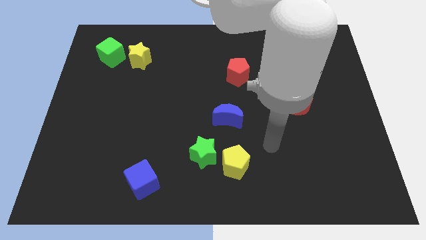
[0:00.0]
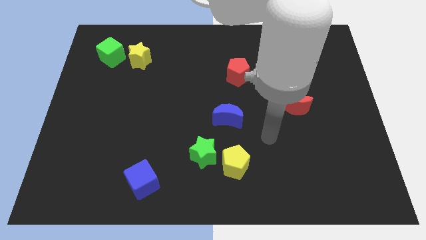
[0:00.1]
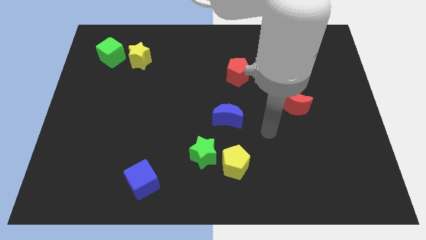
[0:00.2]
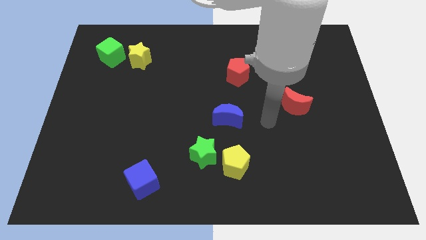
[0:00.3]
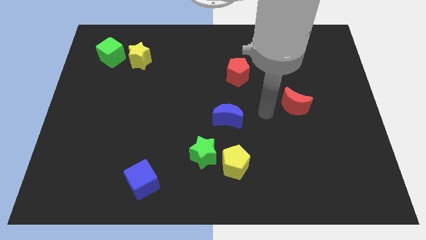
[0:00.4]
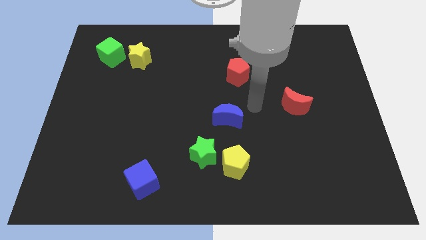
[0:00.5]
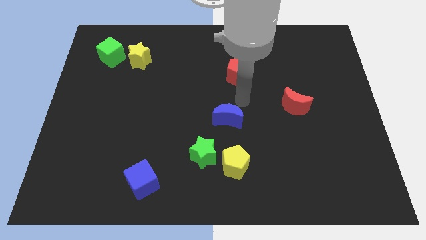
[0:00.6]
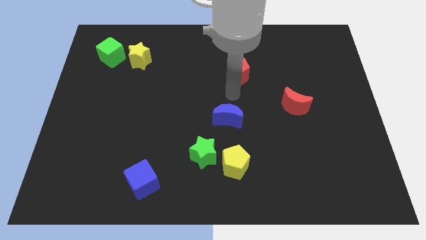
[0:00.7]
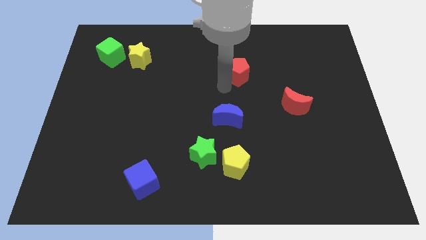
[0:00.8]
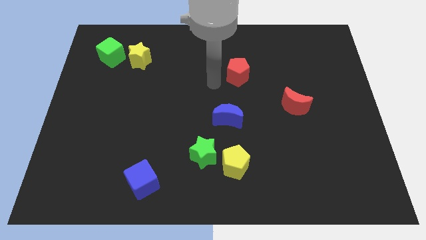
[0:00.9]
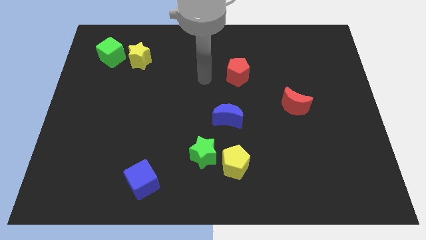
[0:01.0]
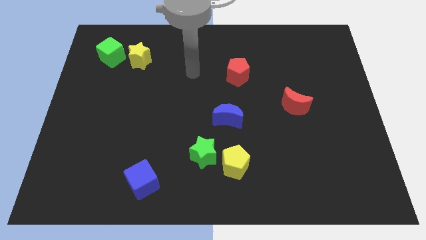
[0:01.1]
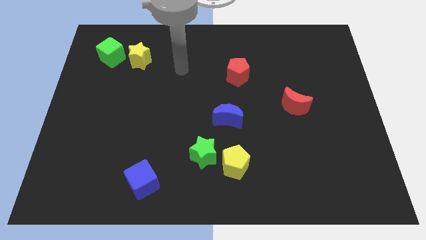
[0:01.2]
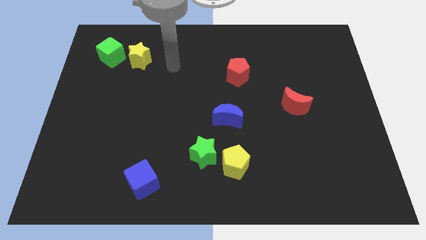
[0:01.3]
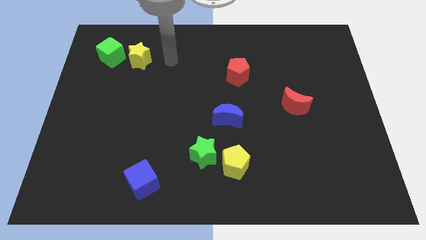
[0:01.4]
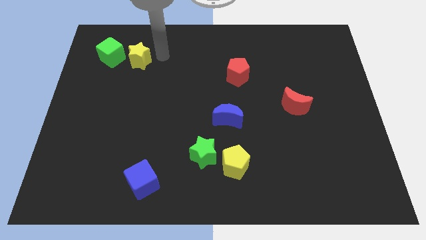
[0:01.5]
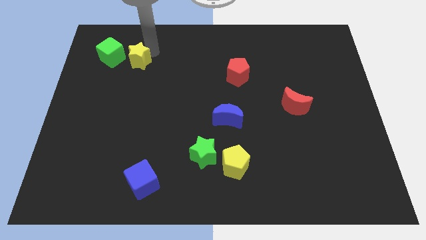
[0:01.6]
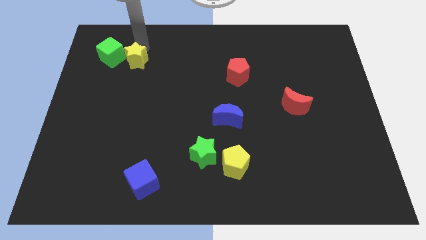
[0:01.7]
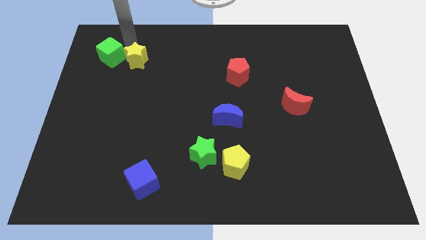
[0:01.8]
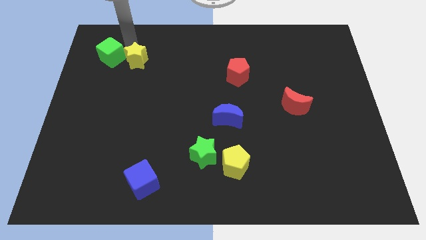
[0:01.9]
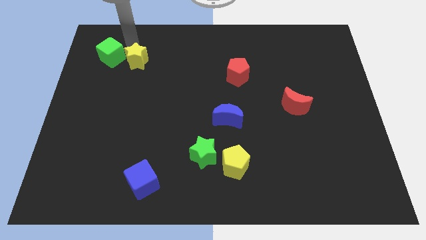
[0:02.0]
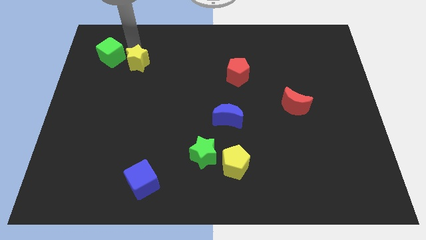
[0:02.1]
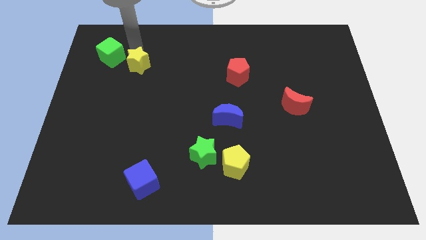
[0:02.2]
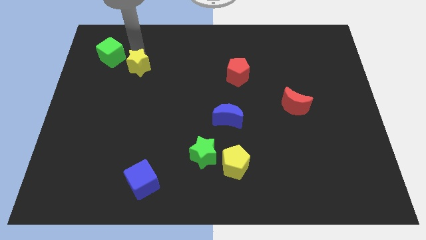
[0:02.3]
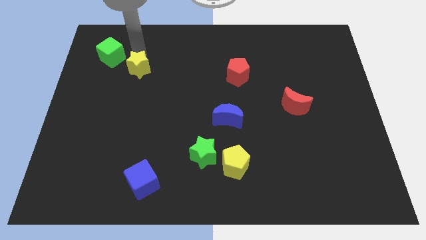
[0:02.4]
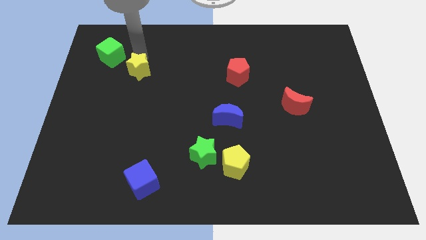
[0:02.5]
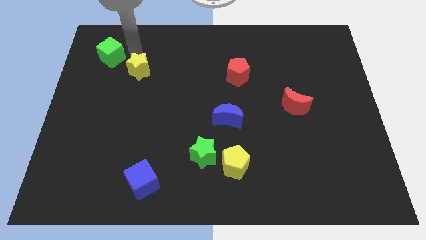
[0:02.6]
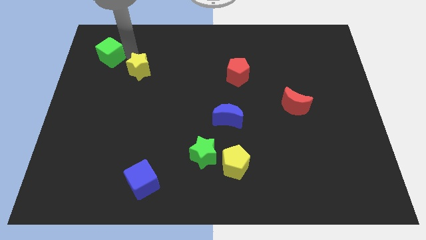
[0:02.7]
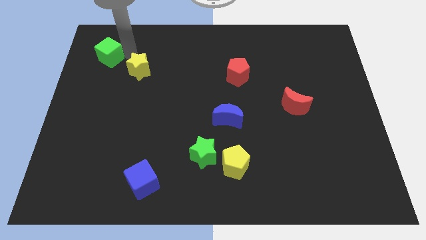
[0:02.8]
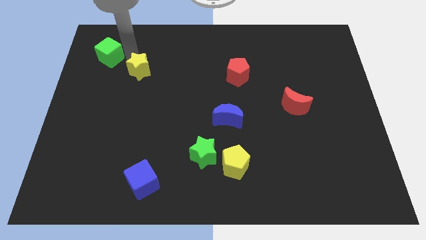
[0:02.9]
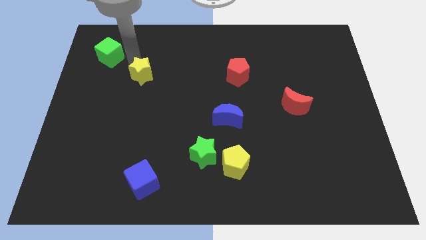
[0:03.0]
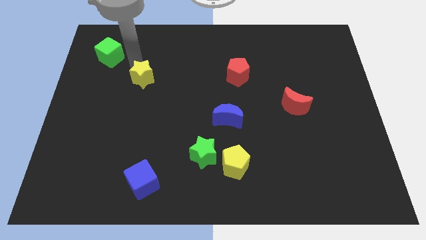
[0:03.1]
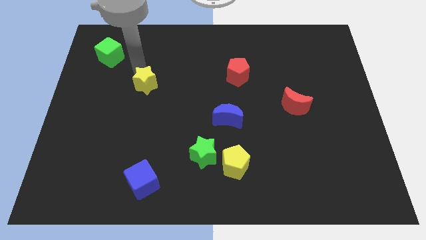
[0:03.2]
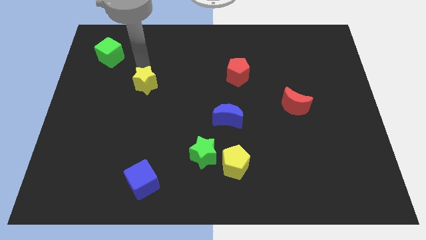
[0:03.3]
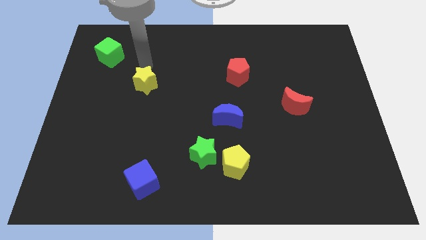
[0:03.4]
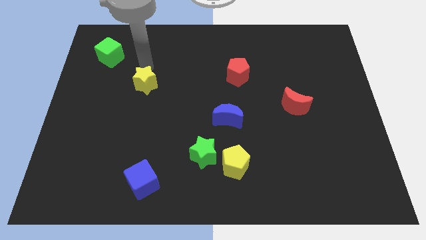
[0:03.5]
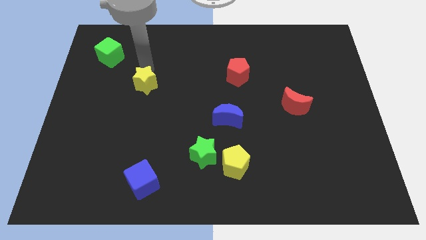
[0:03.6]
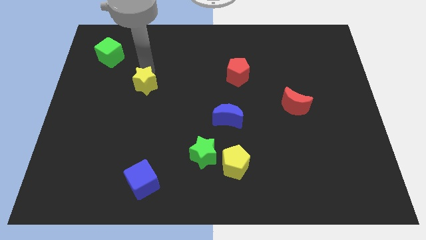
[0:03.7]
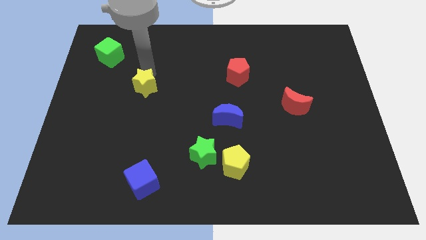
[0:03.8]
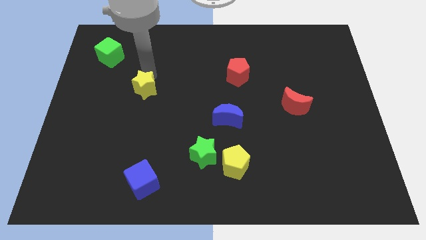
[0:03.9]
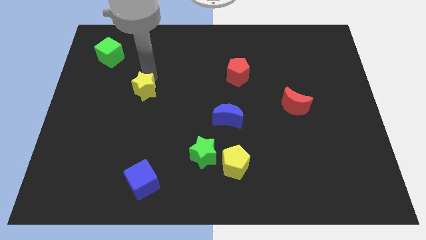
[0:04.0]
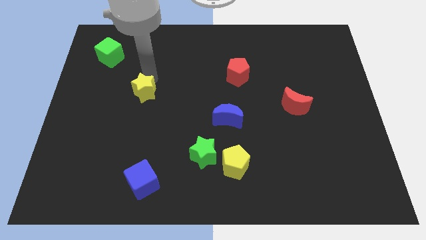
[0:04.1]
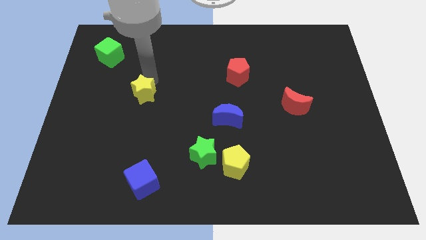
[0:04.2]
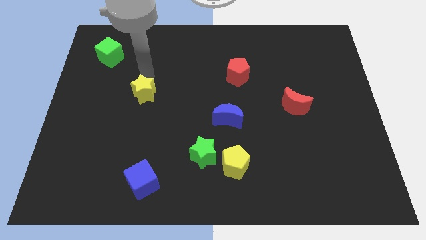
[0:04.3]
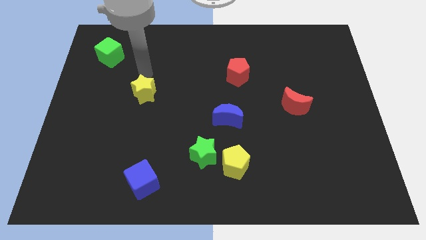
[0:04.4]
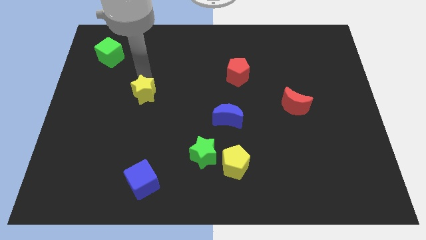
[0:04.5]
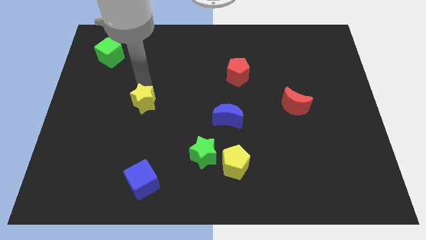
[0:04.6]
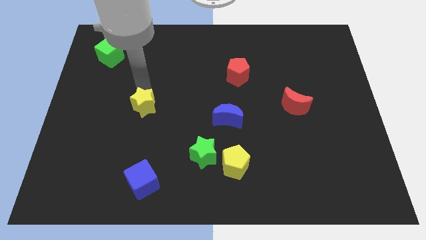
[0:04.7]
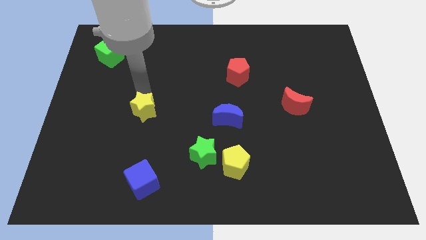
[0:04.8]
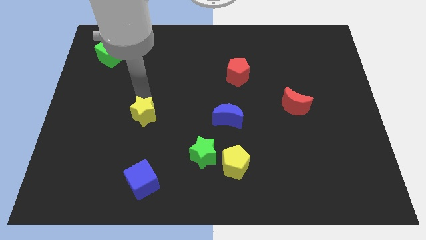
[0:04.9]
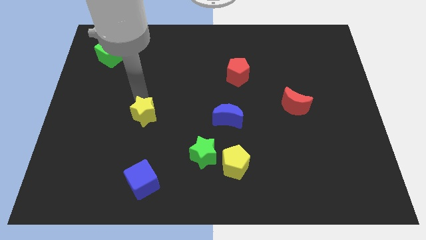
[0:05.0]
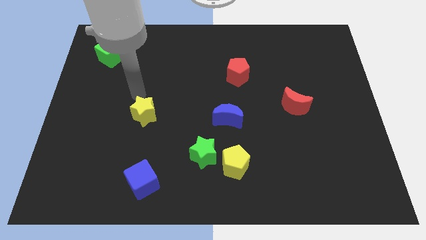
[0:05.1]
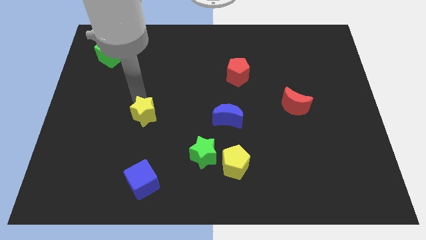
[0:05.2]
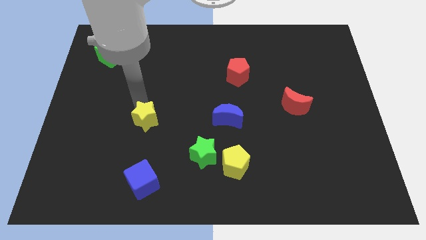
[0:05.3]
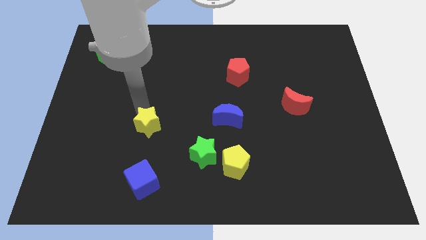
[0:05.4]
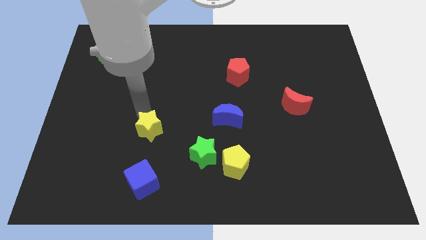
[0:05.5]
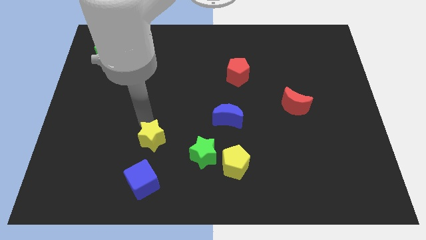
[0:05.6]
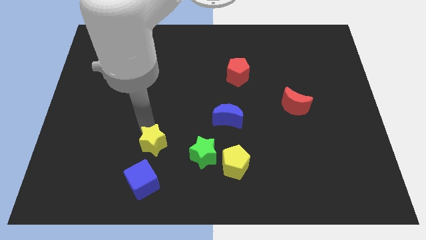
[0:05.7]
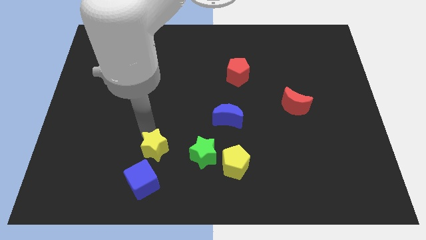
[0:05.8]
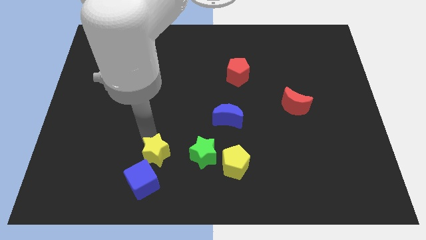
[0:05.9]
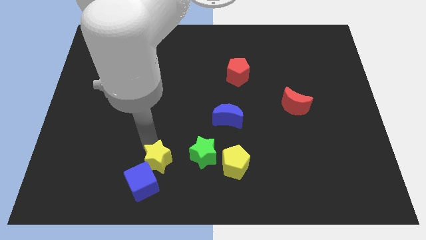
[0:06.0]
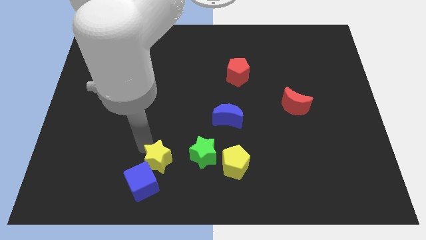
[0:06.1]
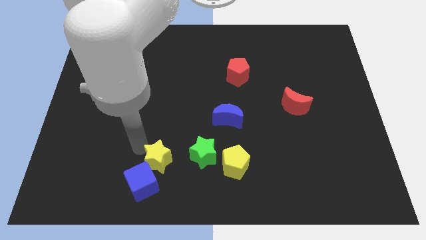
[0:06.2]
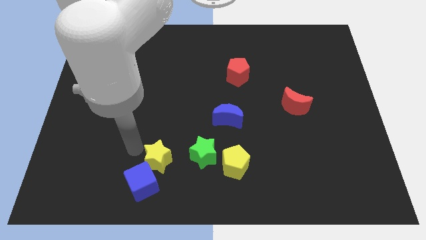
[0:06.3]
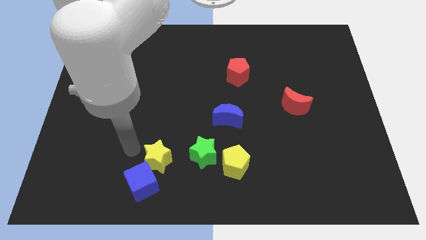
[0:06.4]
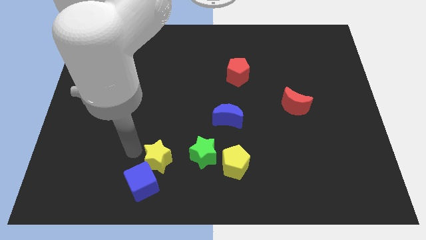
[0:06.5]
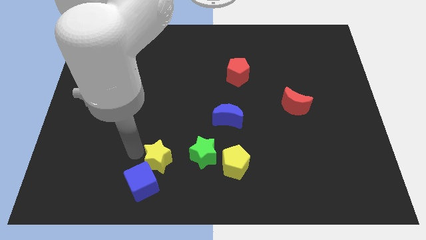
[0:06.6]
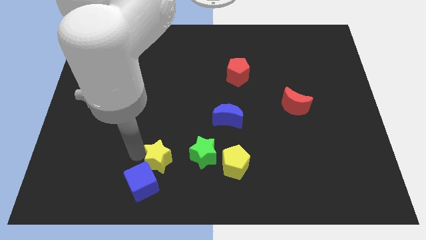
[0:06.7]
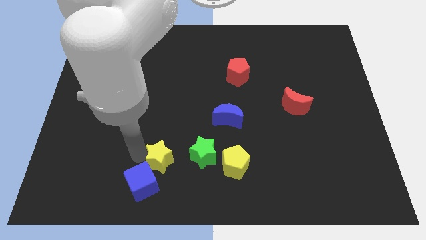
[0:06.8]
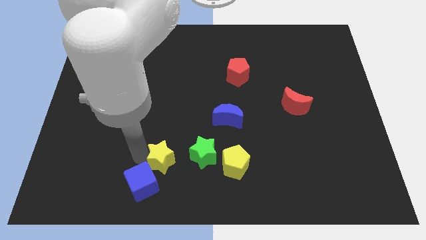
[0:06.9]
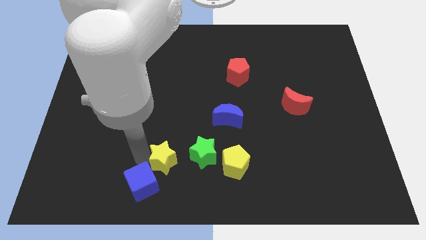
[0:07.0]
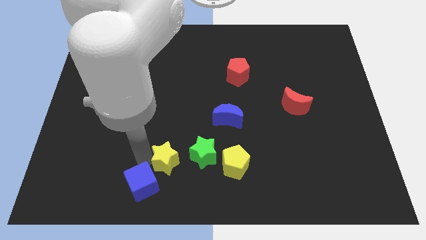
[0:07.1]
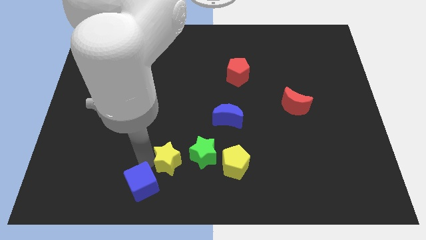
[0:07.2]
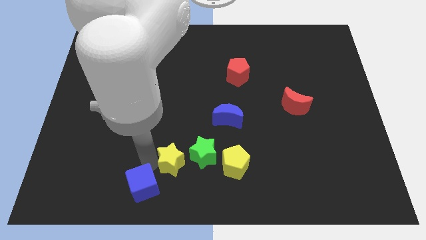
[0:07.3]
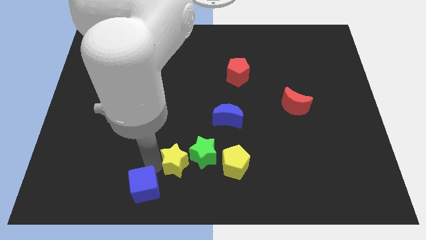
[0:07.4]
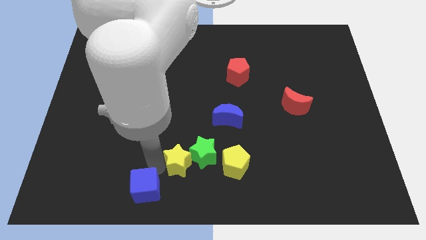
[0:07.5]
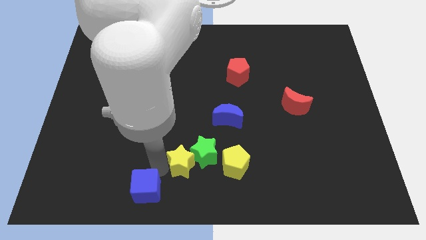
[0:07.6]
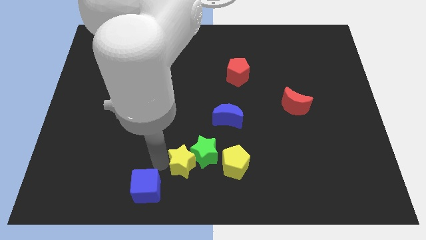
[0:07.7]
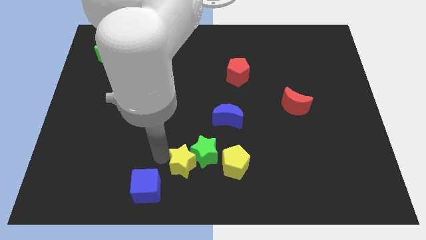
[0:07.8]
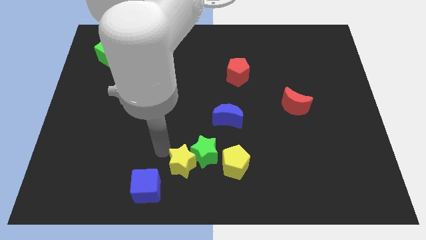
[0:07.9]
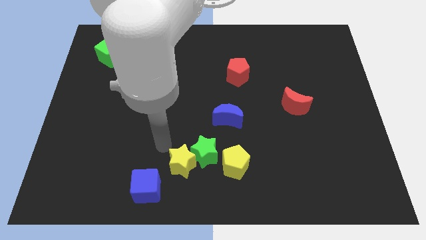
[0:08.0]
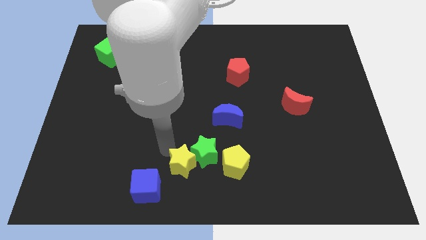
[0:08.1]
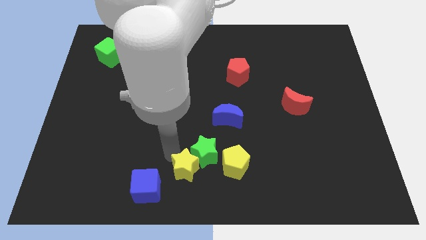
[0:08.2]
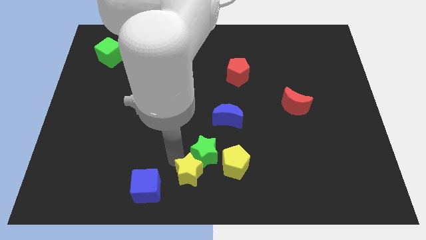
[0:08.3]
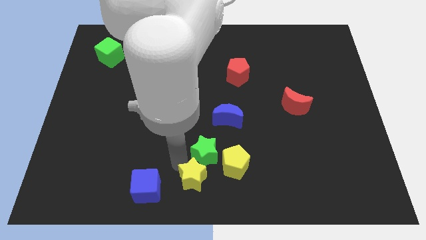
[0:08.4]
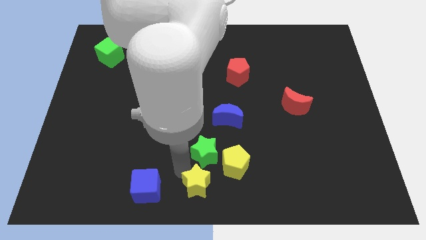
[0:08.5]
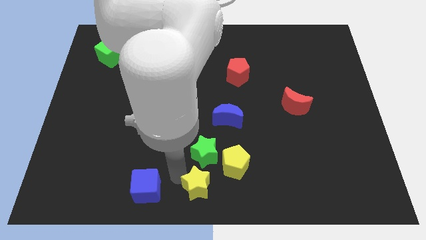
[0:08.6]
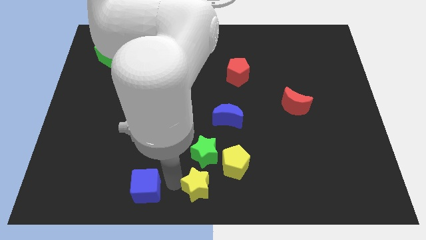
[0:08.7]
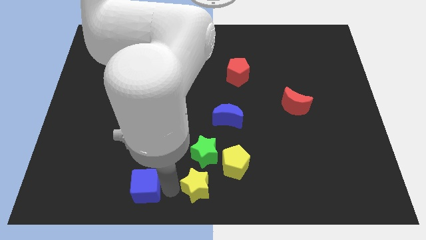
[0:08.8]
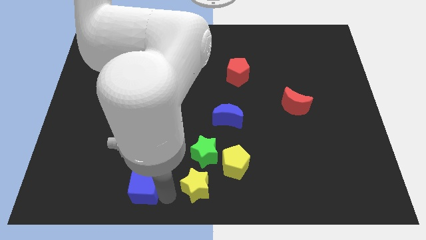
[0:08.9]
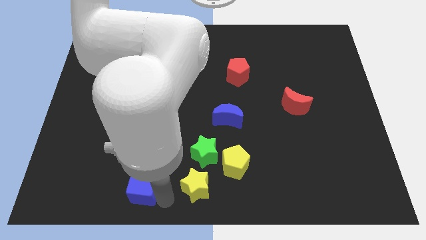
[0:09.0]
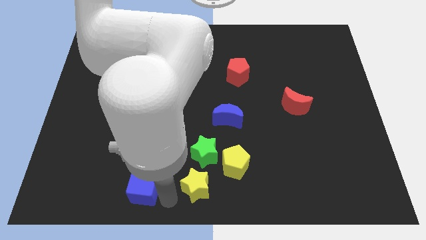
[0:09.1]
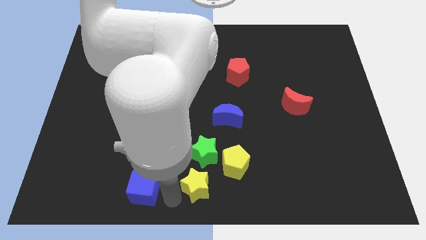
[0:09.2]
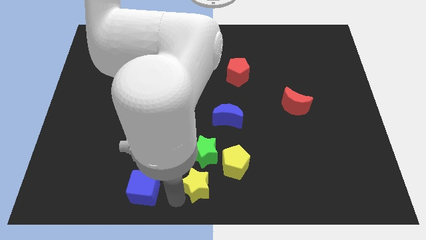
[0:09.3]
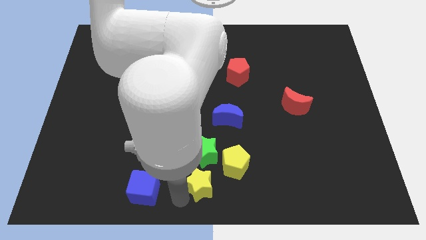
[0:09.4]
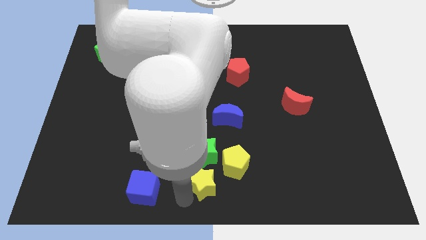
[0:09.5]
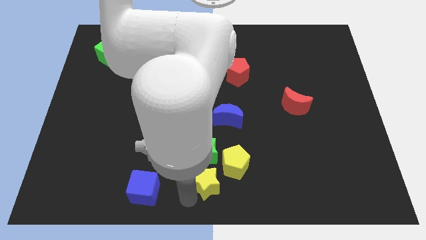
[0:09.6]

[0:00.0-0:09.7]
push the yellow star diagonally down and to the right of the green star
